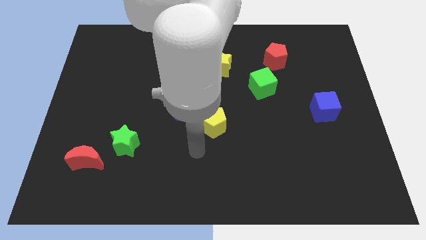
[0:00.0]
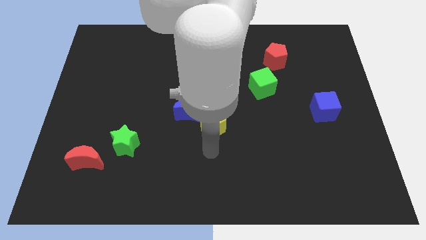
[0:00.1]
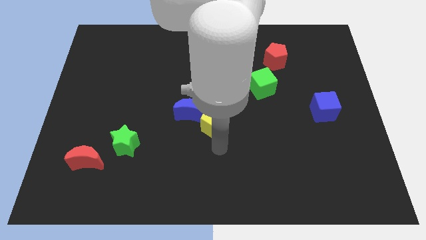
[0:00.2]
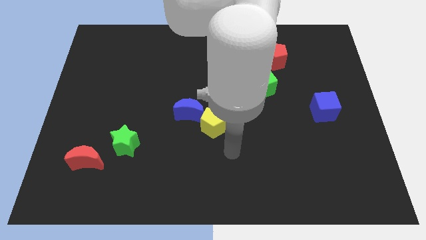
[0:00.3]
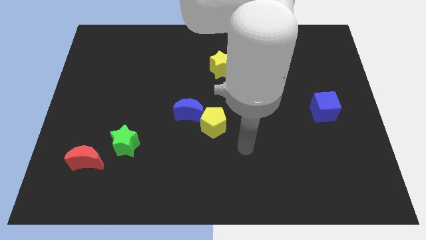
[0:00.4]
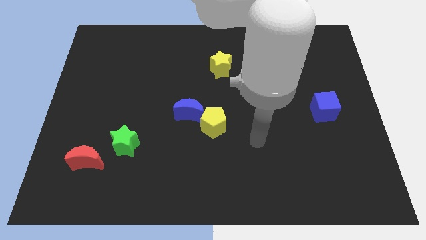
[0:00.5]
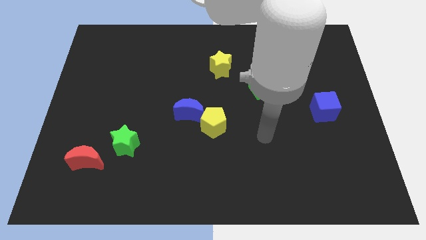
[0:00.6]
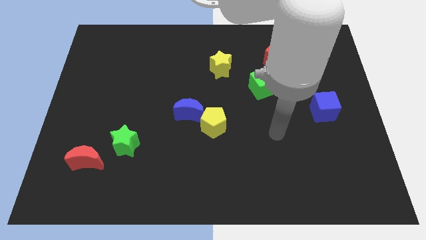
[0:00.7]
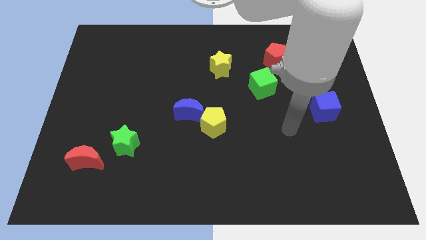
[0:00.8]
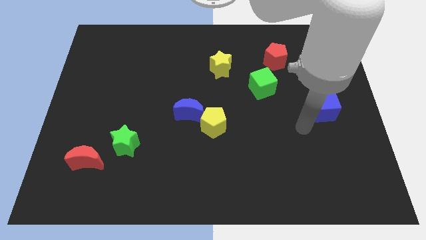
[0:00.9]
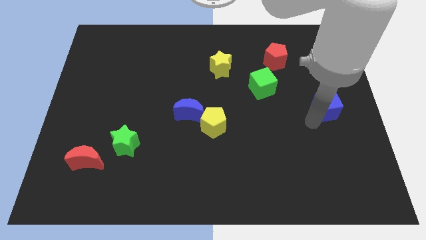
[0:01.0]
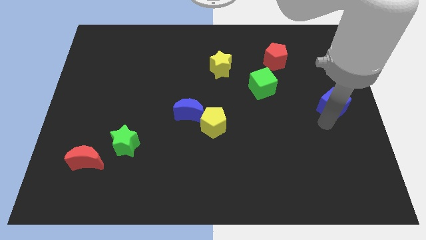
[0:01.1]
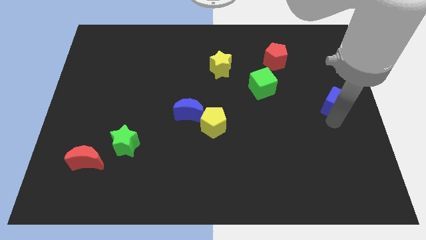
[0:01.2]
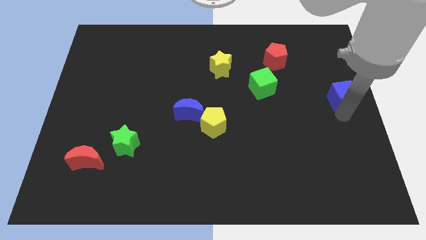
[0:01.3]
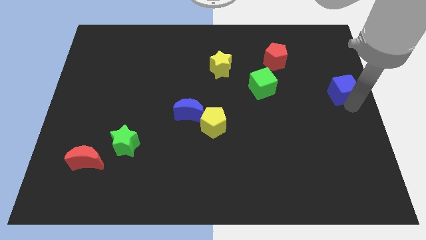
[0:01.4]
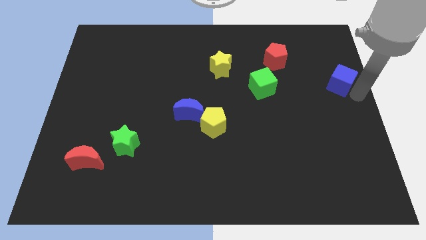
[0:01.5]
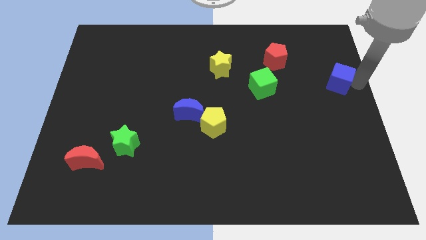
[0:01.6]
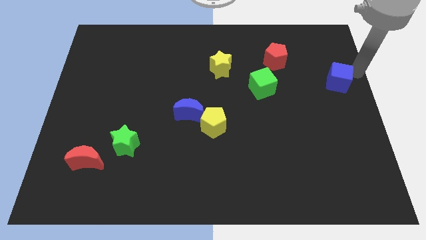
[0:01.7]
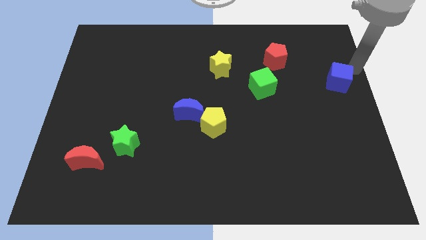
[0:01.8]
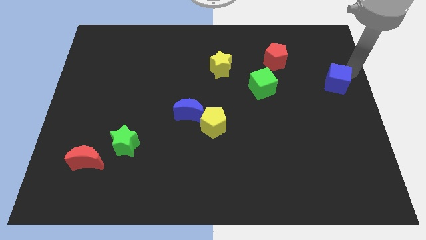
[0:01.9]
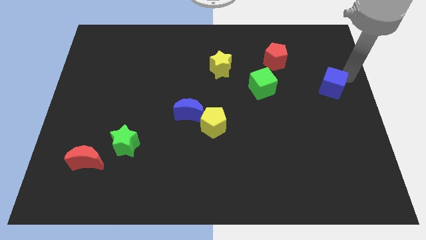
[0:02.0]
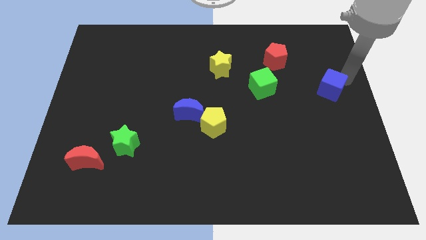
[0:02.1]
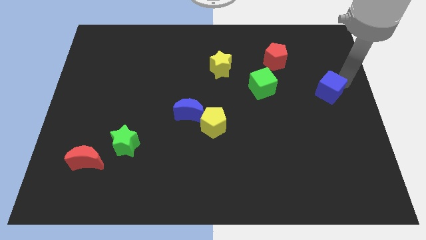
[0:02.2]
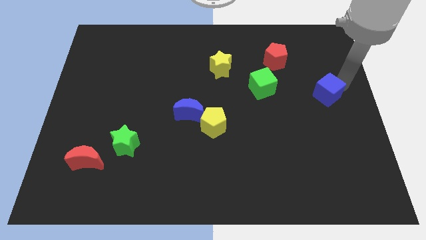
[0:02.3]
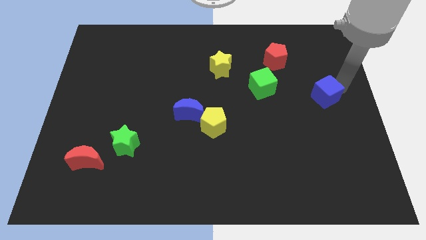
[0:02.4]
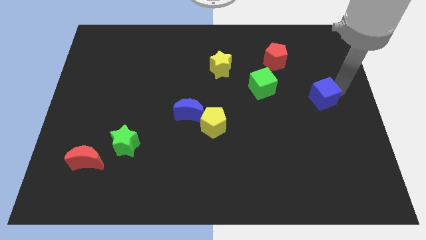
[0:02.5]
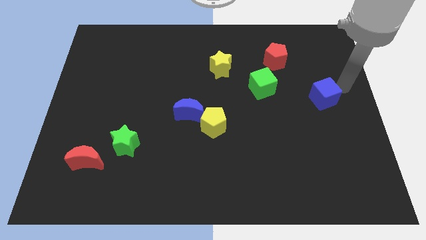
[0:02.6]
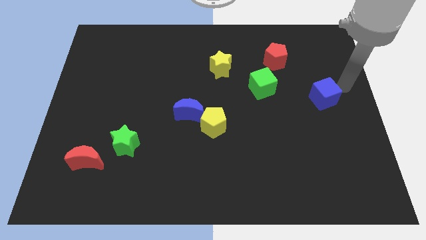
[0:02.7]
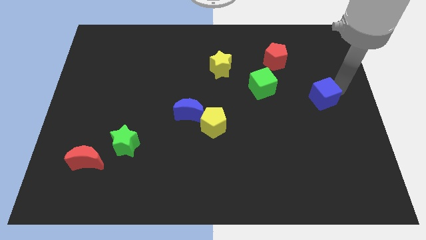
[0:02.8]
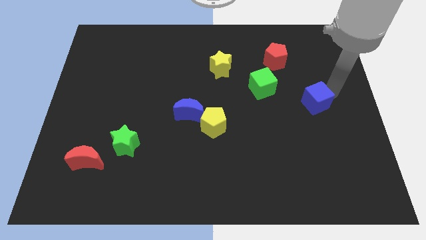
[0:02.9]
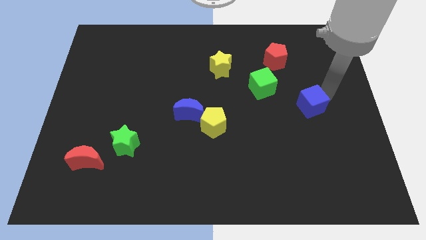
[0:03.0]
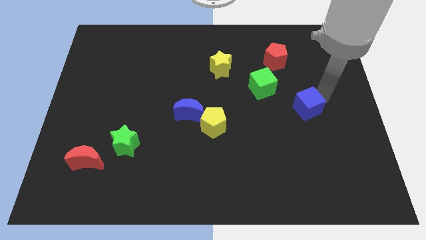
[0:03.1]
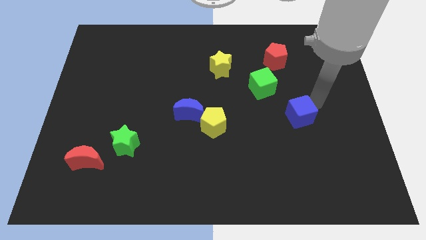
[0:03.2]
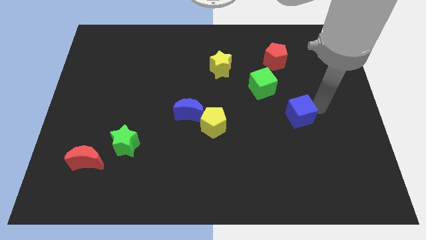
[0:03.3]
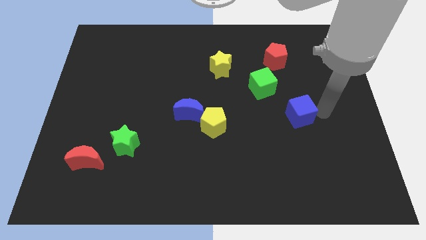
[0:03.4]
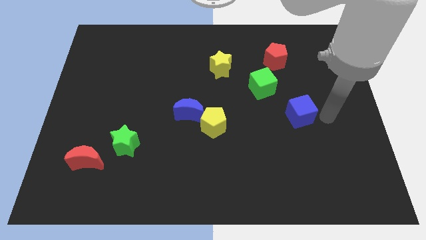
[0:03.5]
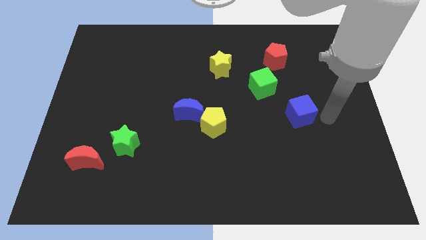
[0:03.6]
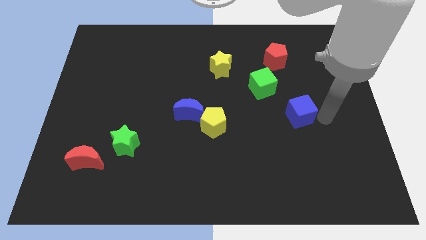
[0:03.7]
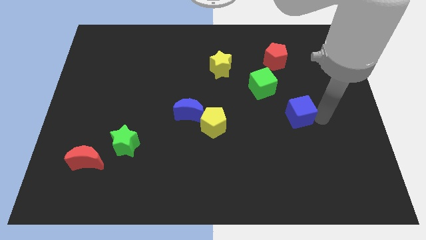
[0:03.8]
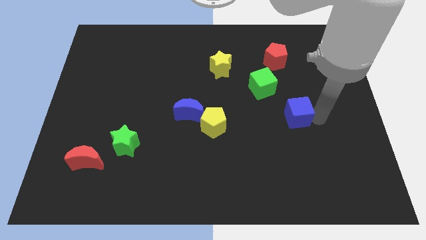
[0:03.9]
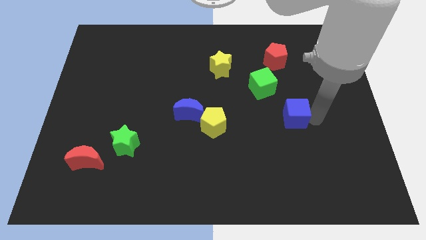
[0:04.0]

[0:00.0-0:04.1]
slightly move the blue cube left

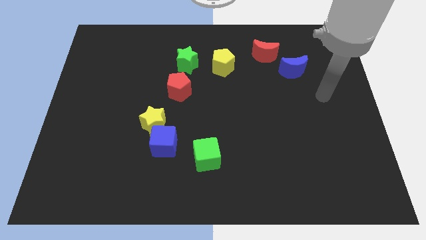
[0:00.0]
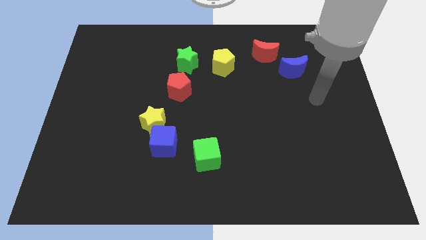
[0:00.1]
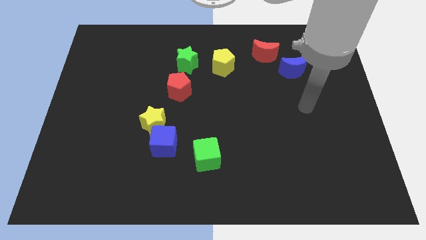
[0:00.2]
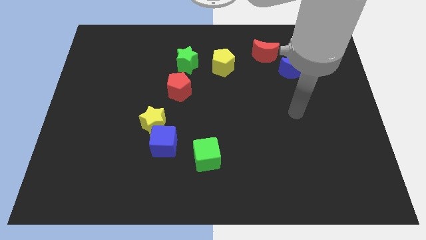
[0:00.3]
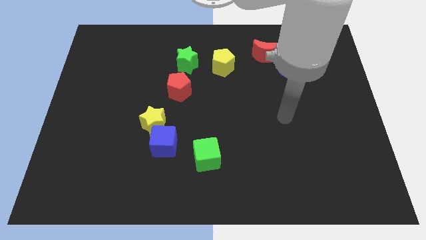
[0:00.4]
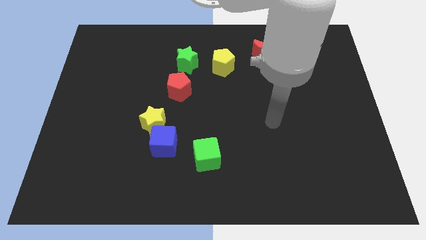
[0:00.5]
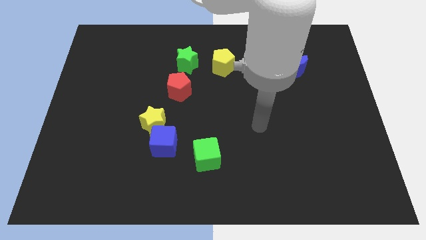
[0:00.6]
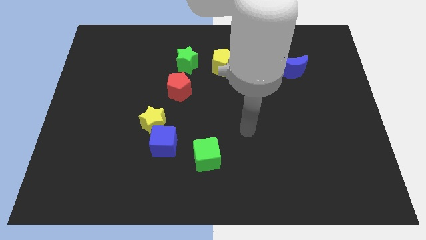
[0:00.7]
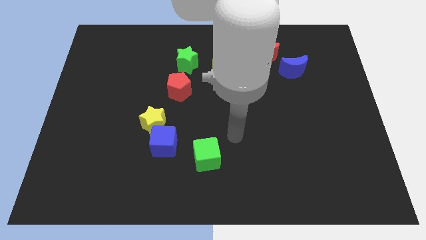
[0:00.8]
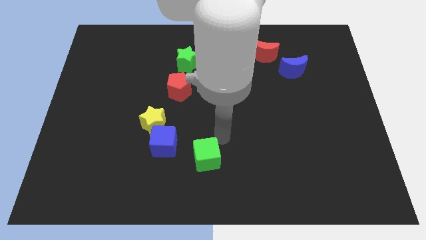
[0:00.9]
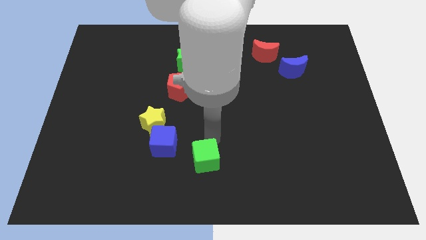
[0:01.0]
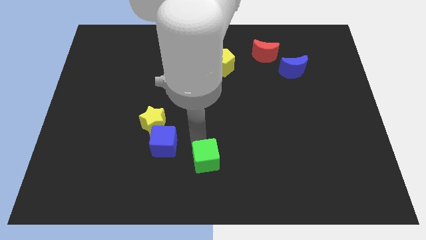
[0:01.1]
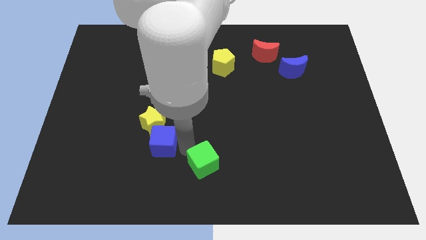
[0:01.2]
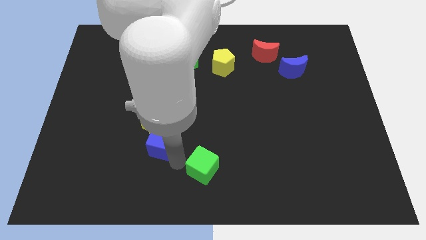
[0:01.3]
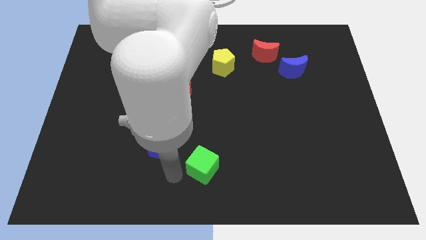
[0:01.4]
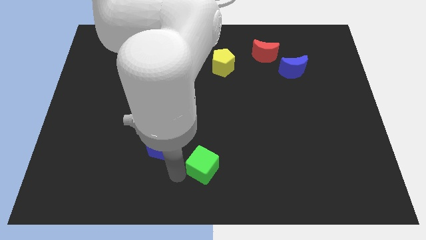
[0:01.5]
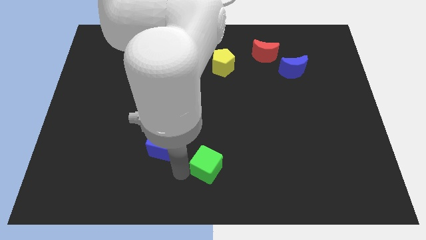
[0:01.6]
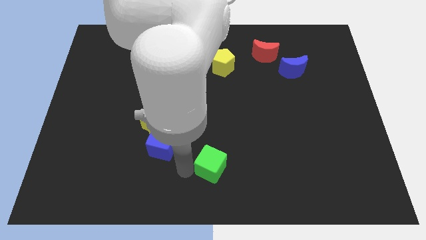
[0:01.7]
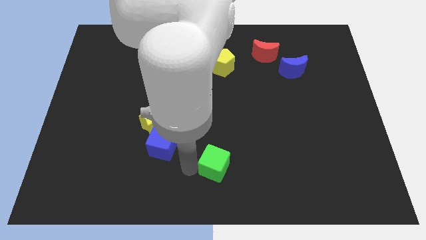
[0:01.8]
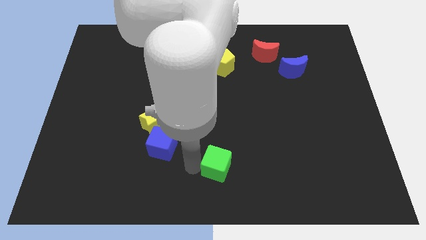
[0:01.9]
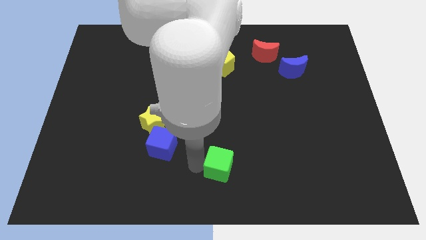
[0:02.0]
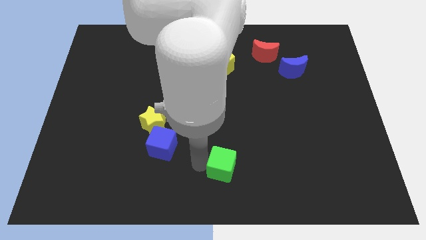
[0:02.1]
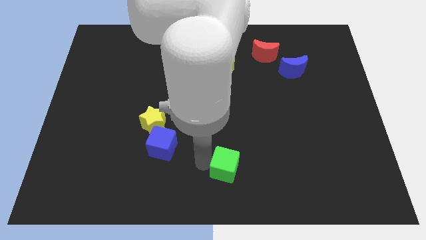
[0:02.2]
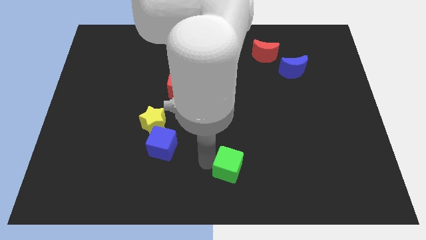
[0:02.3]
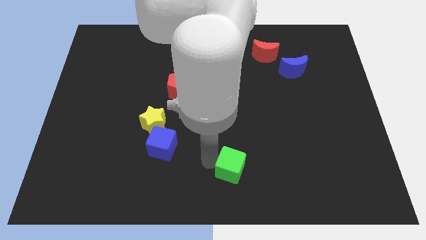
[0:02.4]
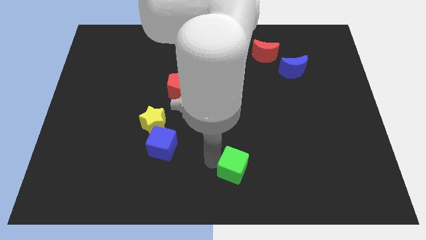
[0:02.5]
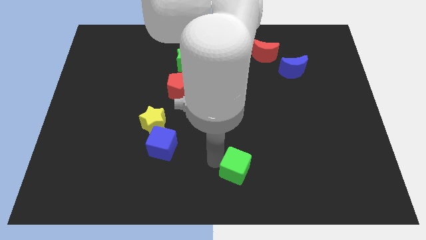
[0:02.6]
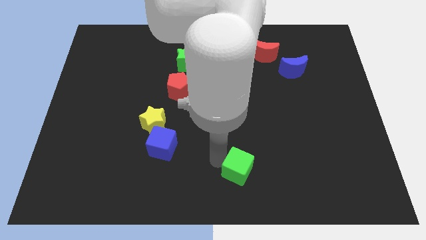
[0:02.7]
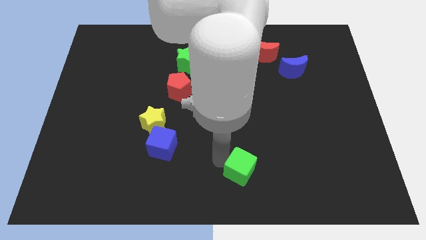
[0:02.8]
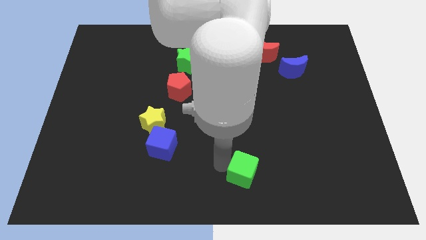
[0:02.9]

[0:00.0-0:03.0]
slightly push the green cube right

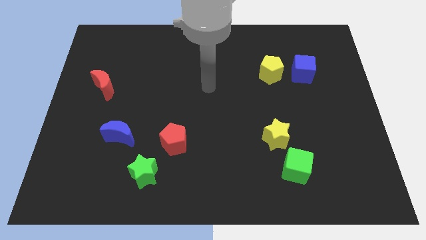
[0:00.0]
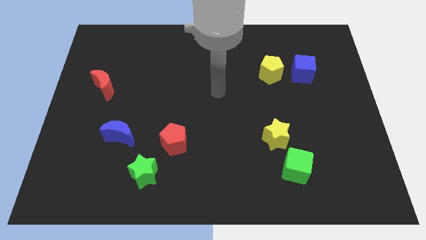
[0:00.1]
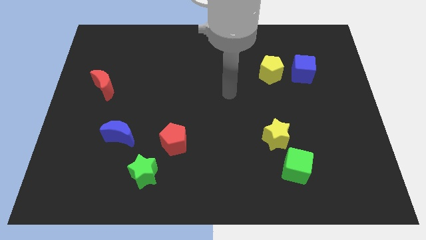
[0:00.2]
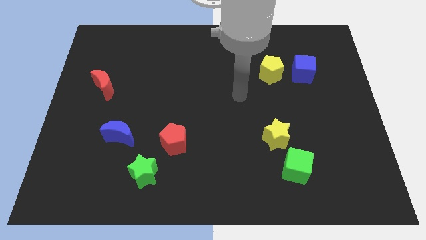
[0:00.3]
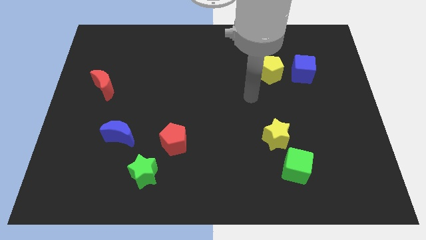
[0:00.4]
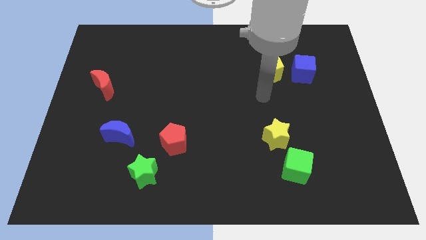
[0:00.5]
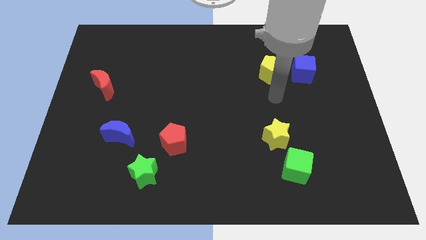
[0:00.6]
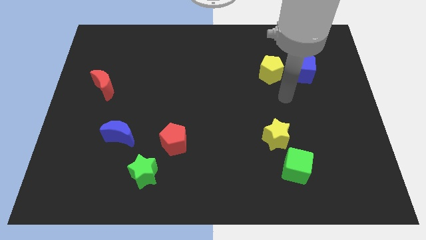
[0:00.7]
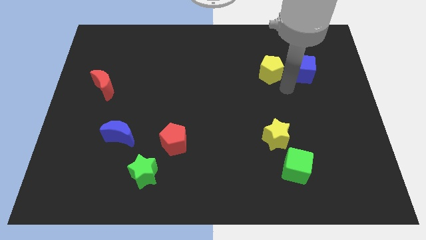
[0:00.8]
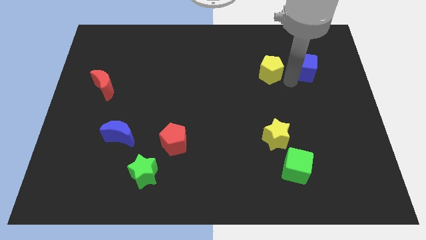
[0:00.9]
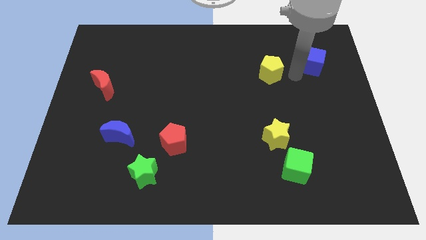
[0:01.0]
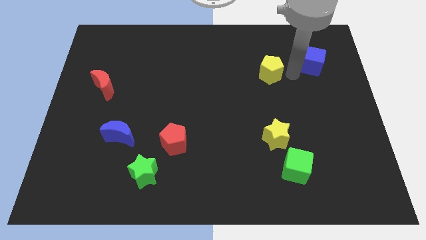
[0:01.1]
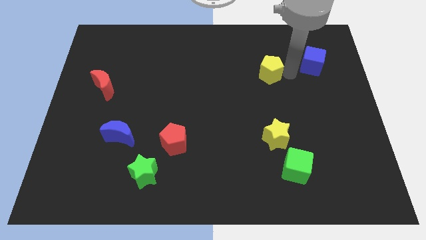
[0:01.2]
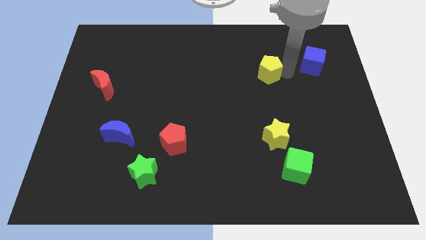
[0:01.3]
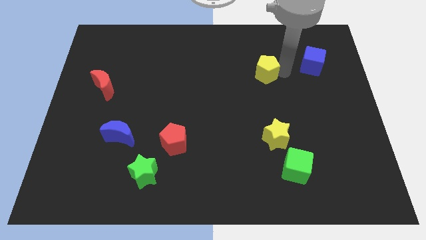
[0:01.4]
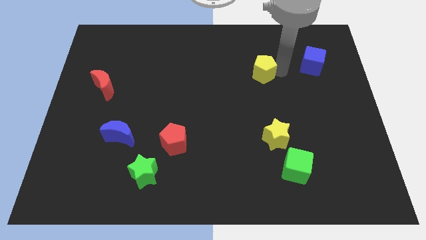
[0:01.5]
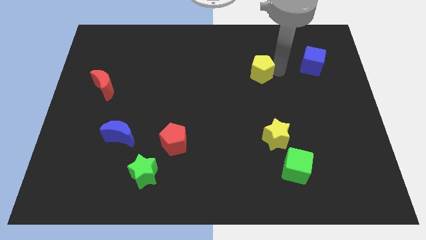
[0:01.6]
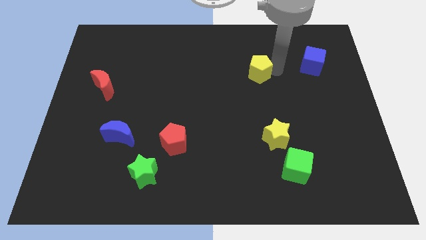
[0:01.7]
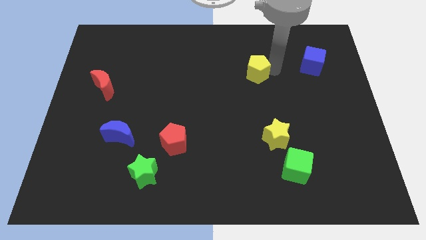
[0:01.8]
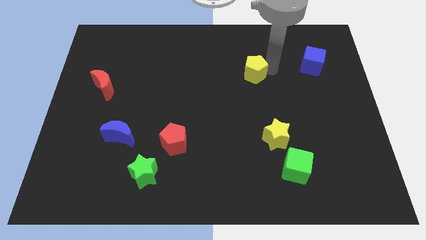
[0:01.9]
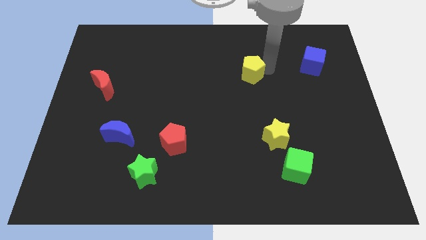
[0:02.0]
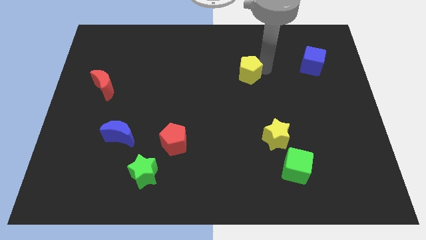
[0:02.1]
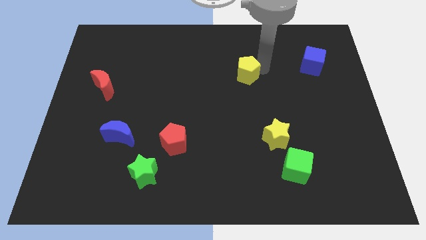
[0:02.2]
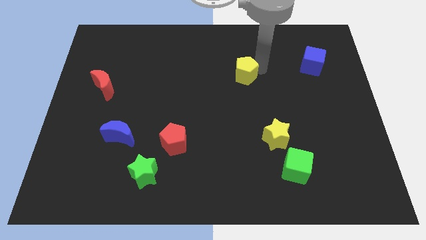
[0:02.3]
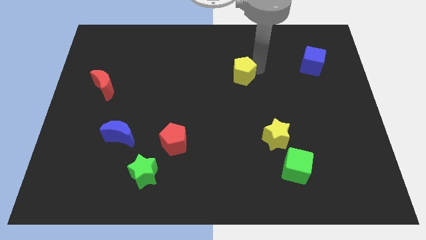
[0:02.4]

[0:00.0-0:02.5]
slide the yellow pentagon a little to the left
